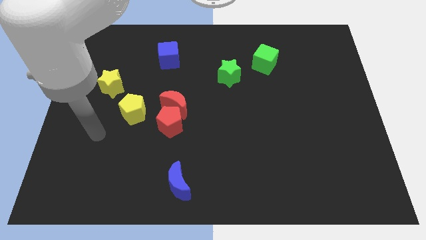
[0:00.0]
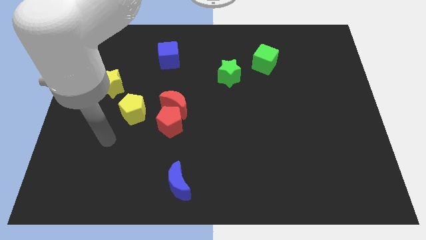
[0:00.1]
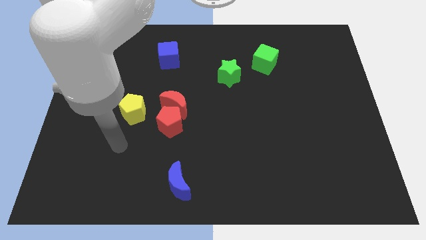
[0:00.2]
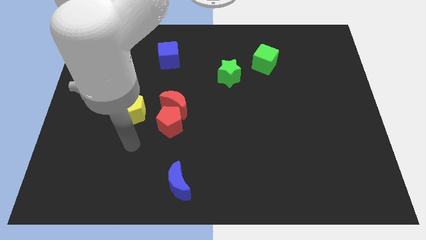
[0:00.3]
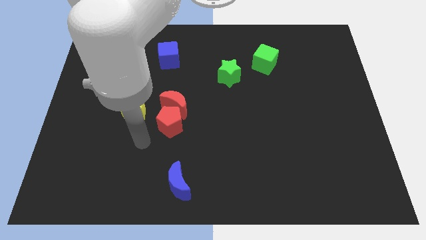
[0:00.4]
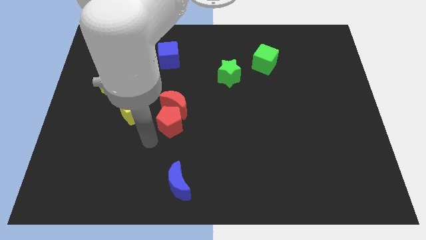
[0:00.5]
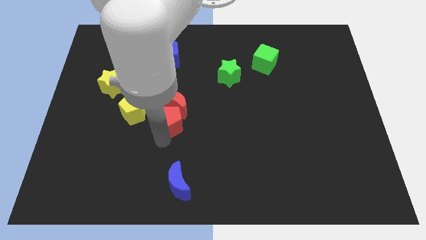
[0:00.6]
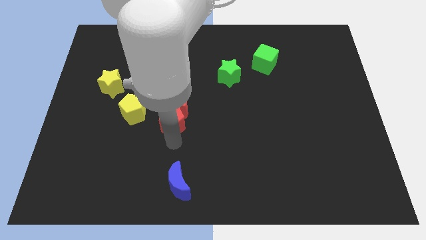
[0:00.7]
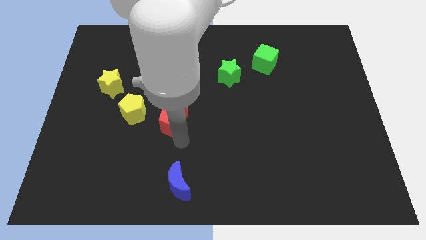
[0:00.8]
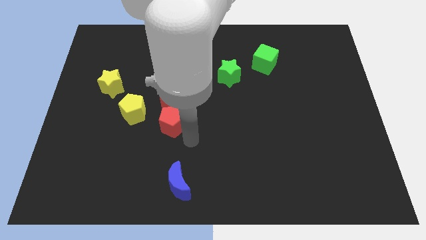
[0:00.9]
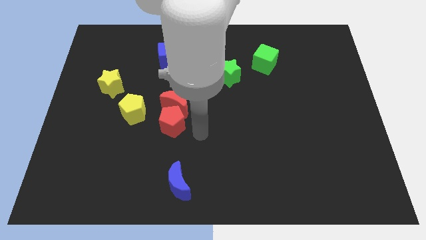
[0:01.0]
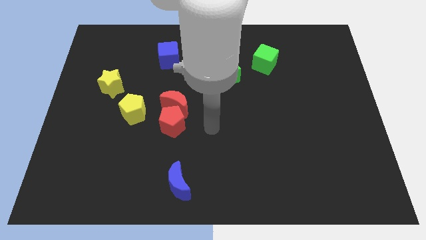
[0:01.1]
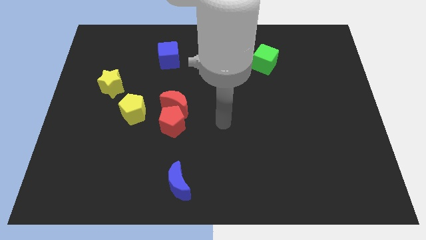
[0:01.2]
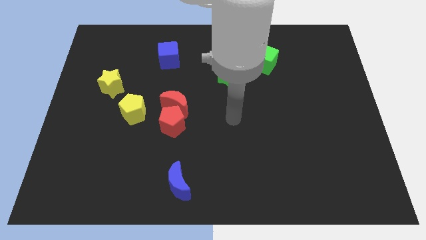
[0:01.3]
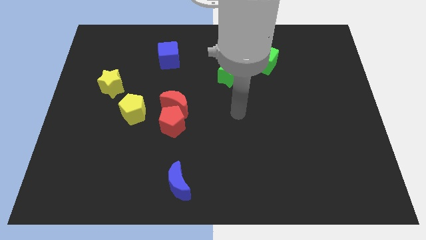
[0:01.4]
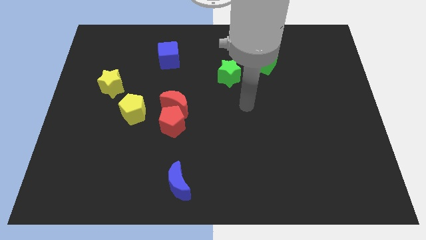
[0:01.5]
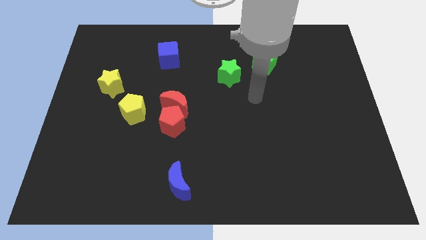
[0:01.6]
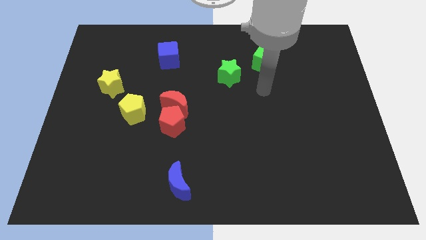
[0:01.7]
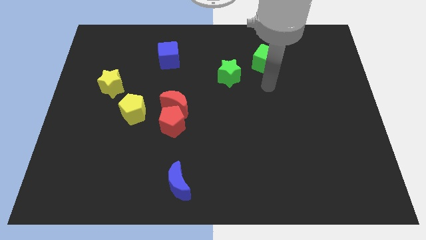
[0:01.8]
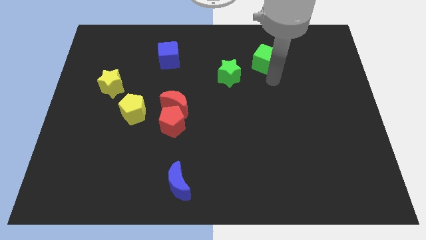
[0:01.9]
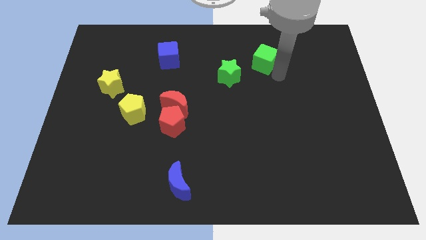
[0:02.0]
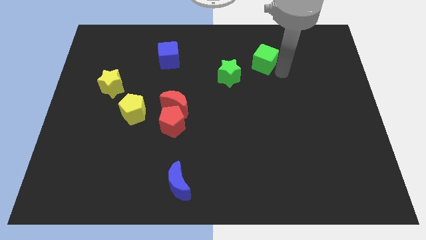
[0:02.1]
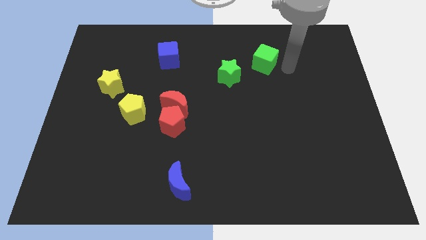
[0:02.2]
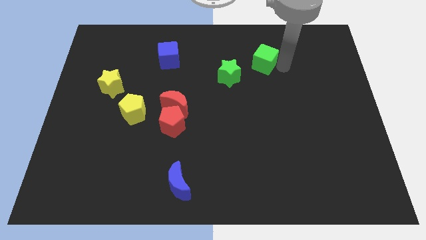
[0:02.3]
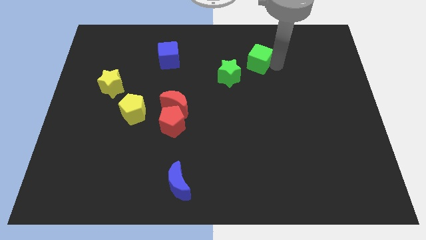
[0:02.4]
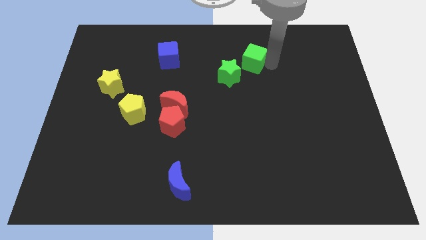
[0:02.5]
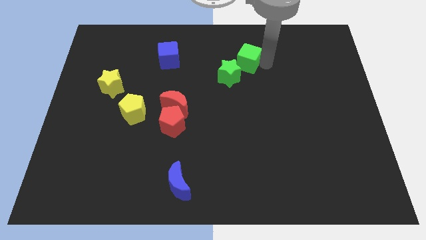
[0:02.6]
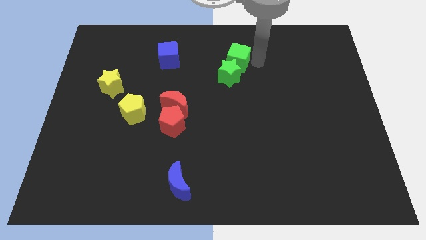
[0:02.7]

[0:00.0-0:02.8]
slide the green cube slightly to the left

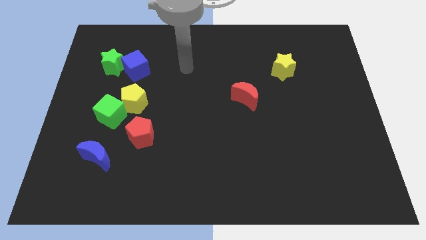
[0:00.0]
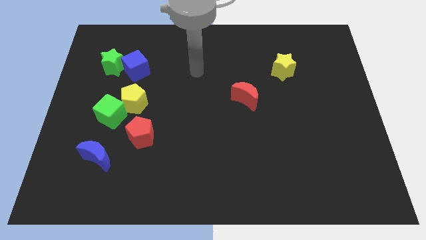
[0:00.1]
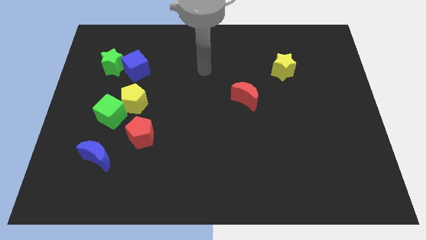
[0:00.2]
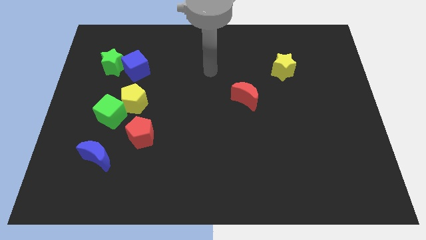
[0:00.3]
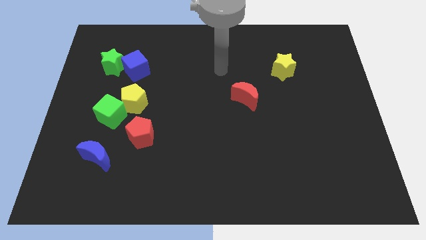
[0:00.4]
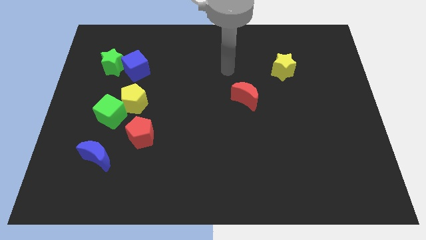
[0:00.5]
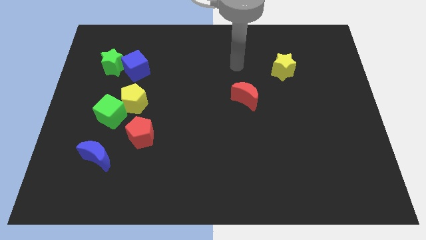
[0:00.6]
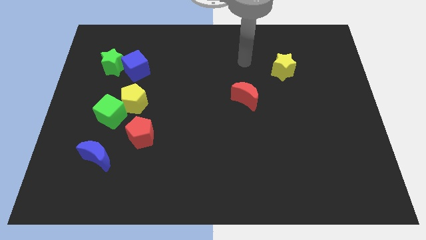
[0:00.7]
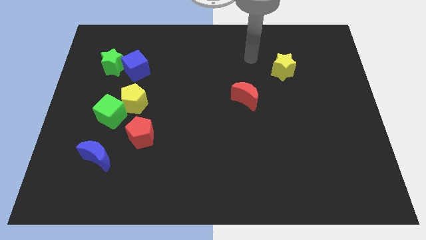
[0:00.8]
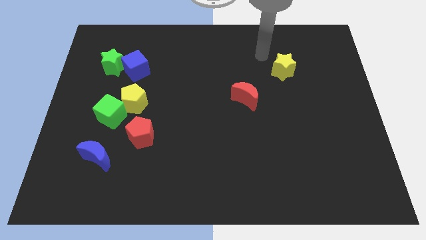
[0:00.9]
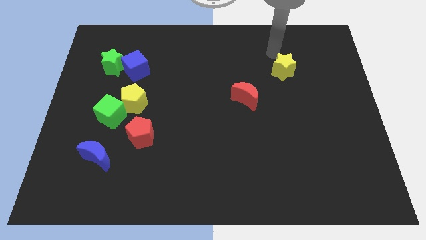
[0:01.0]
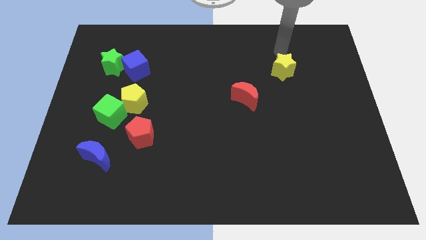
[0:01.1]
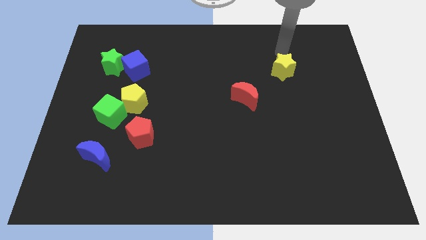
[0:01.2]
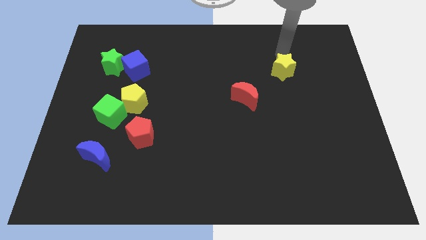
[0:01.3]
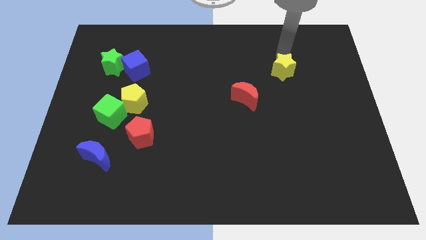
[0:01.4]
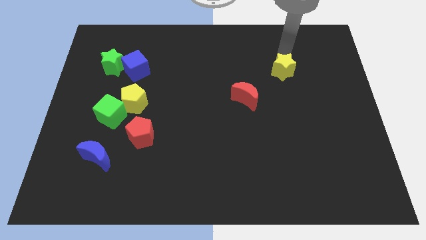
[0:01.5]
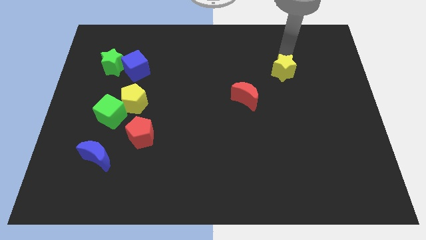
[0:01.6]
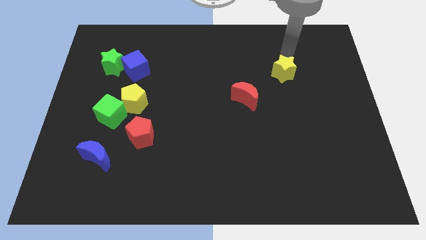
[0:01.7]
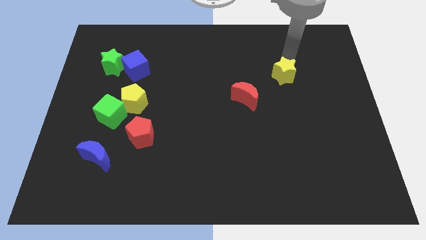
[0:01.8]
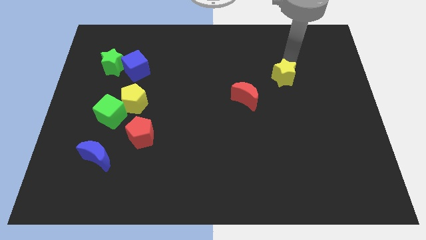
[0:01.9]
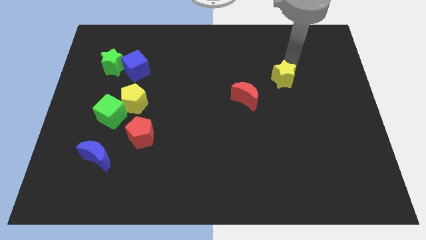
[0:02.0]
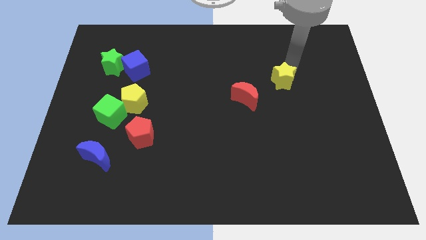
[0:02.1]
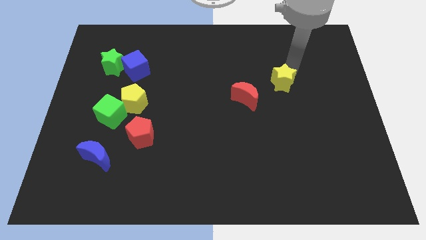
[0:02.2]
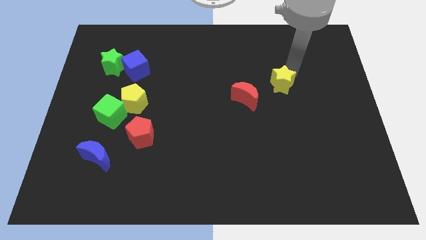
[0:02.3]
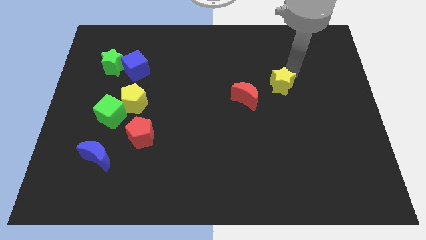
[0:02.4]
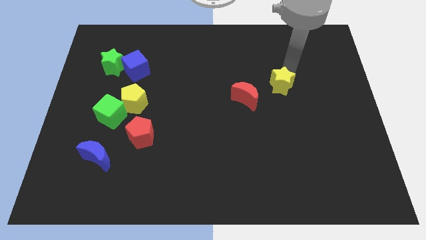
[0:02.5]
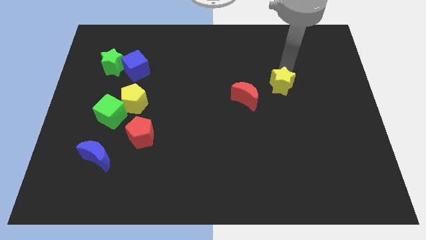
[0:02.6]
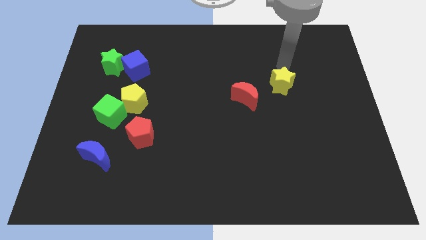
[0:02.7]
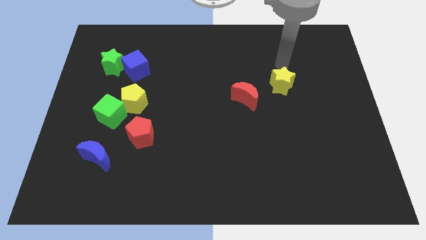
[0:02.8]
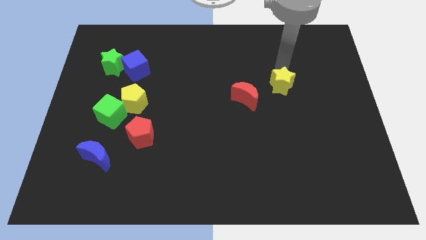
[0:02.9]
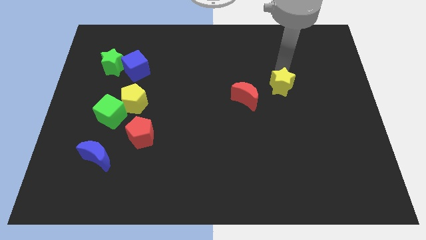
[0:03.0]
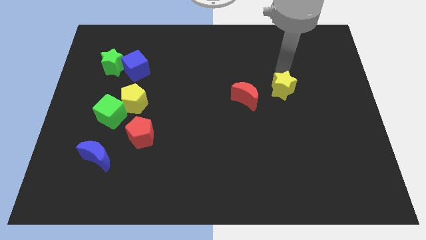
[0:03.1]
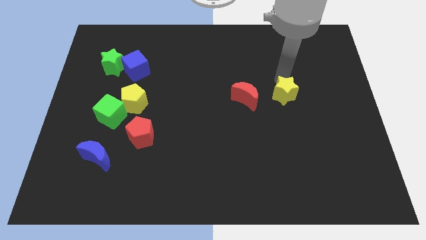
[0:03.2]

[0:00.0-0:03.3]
slightly slide the yellow star downwards

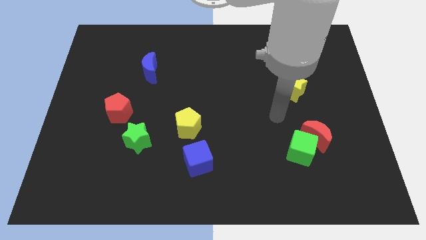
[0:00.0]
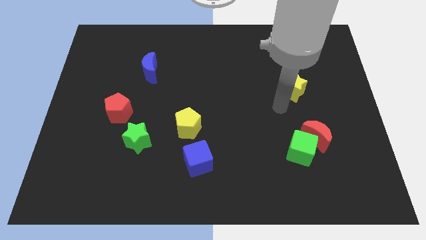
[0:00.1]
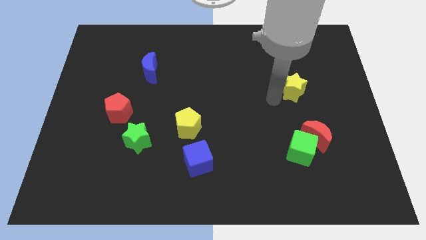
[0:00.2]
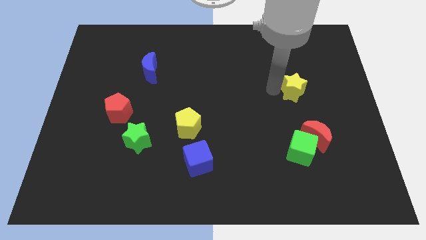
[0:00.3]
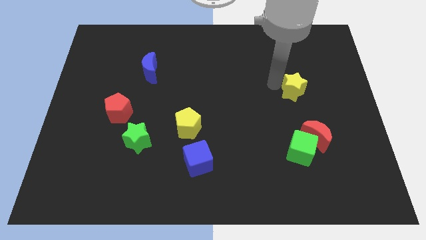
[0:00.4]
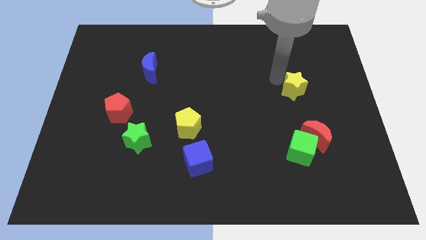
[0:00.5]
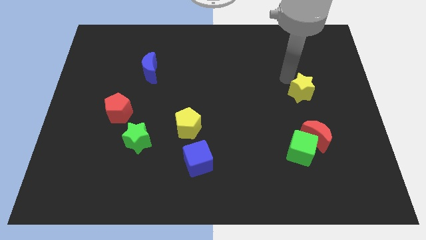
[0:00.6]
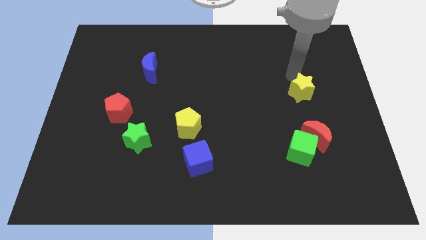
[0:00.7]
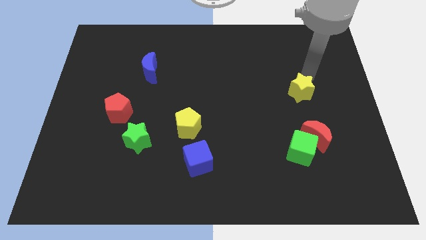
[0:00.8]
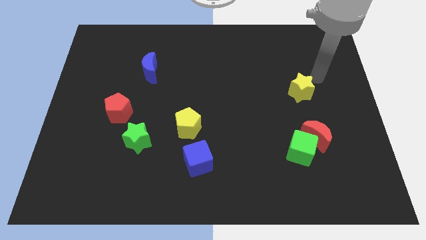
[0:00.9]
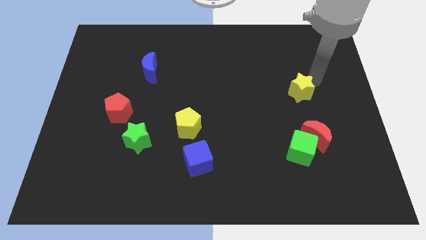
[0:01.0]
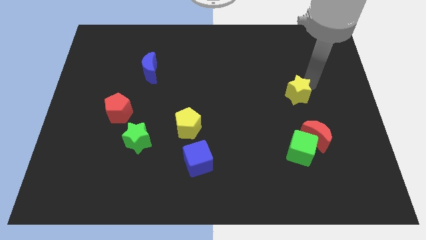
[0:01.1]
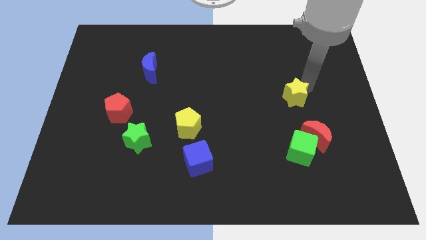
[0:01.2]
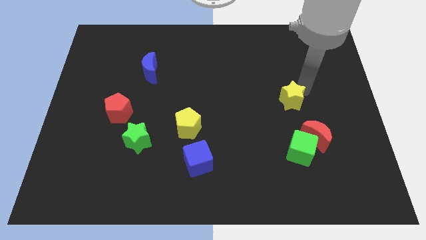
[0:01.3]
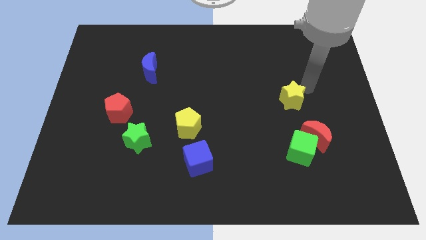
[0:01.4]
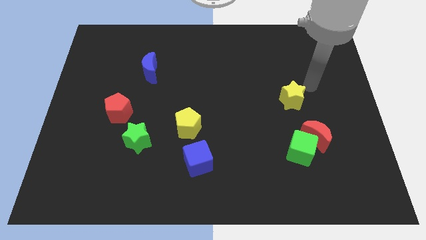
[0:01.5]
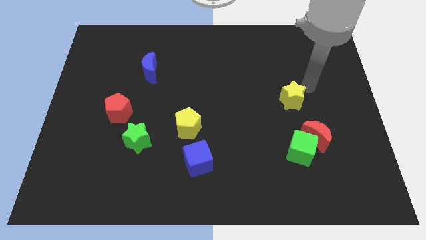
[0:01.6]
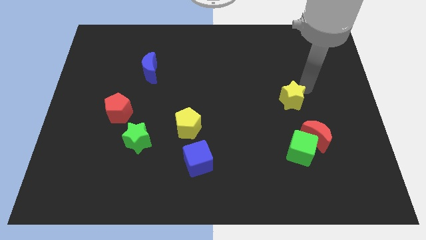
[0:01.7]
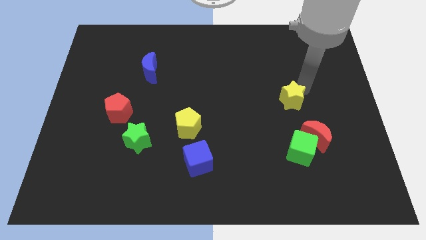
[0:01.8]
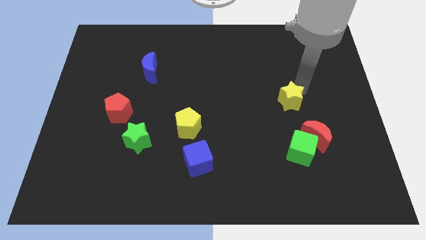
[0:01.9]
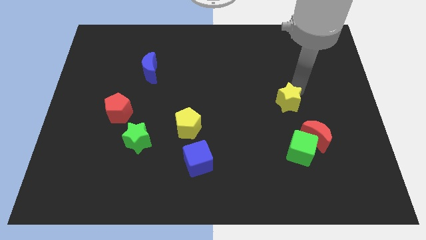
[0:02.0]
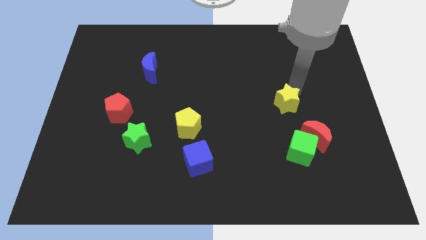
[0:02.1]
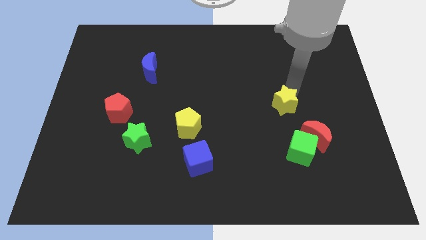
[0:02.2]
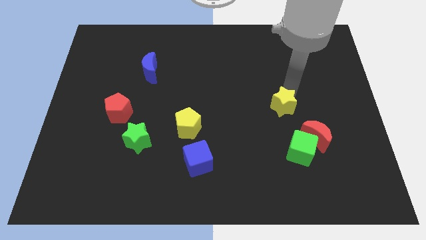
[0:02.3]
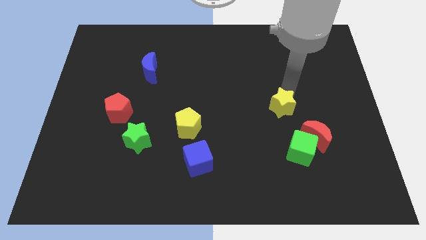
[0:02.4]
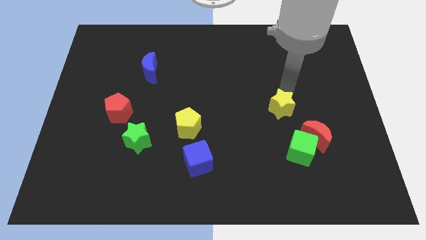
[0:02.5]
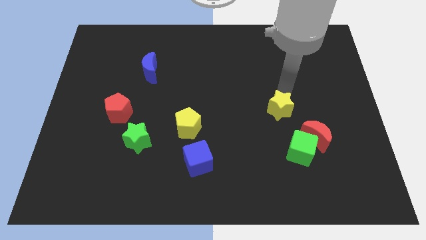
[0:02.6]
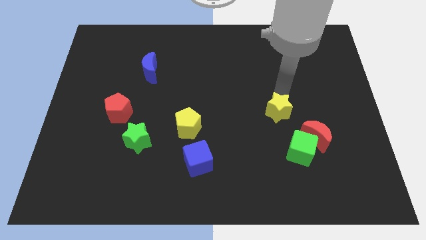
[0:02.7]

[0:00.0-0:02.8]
move the yellow star downwards and then left a bit
